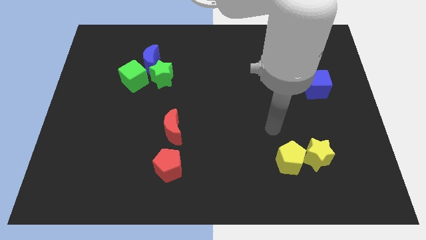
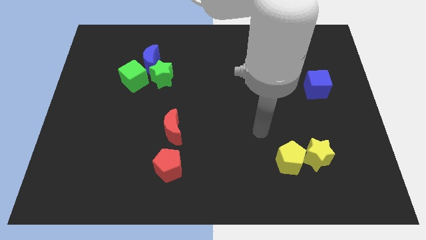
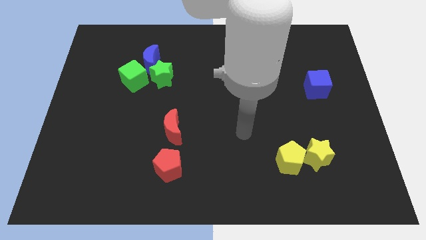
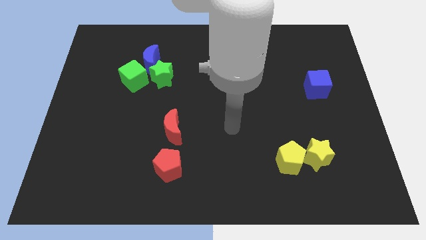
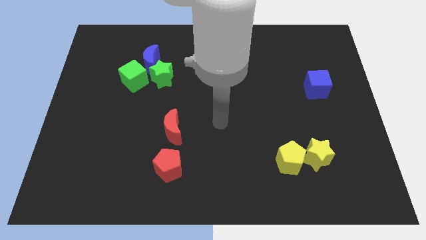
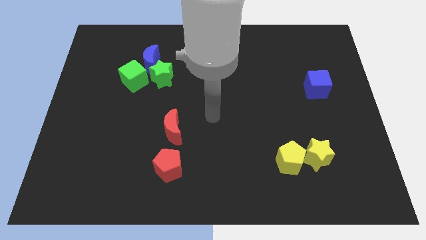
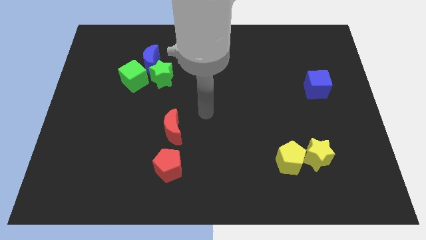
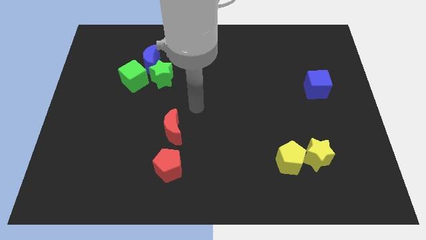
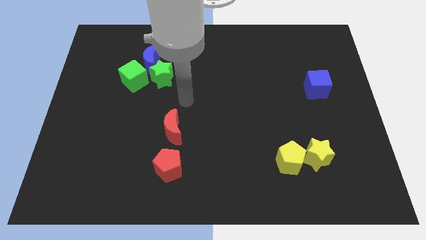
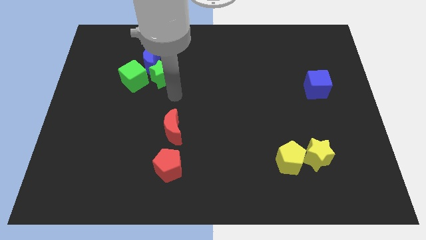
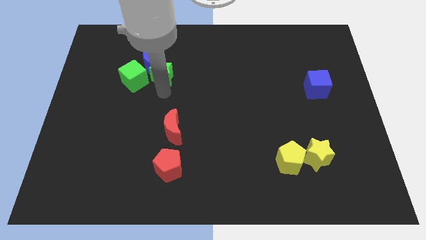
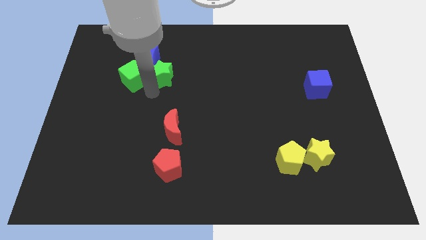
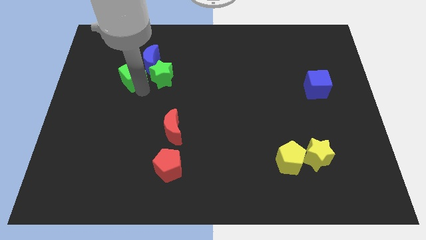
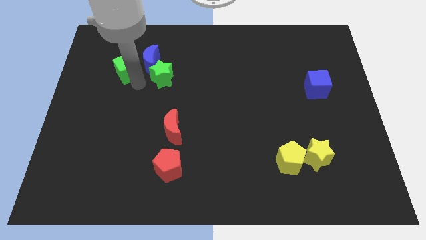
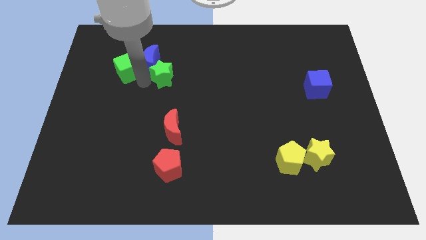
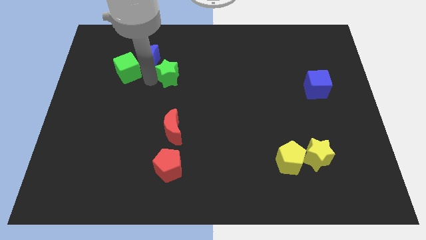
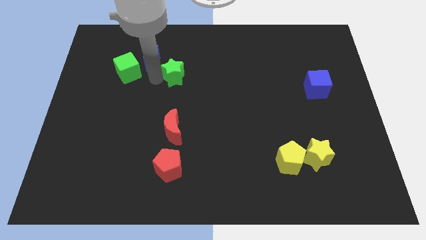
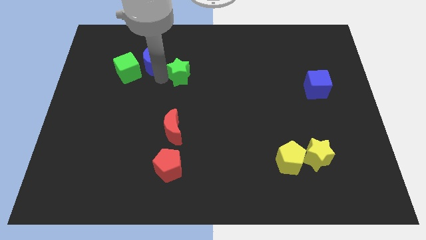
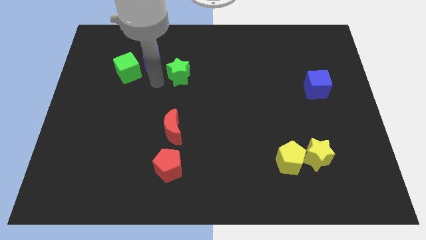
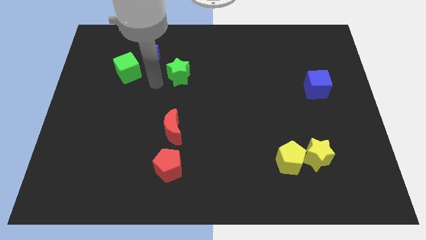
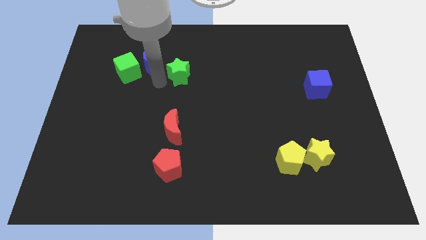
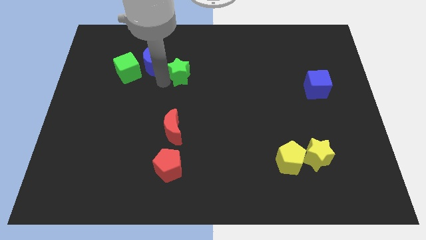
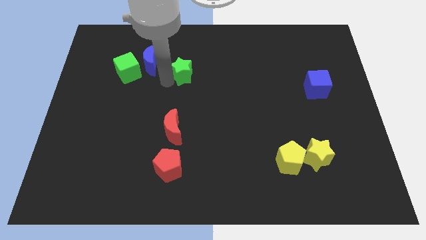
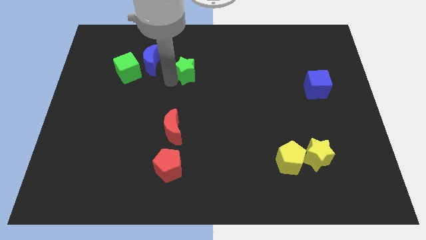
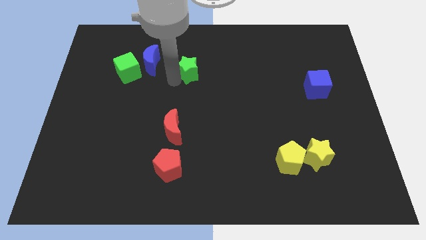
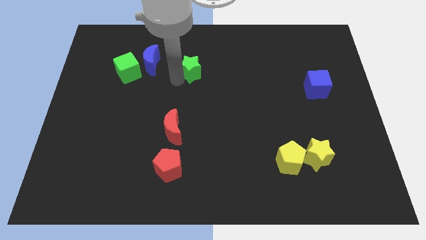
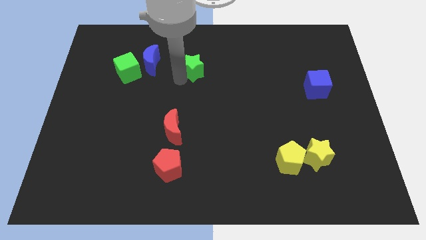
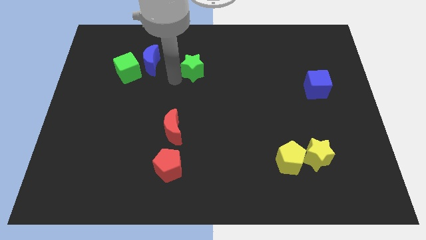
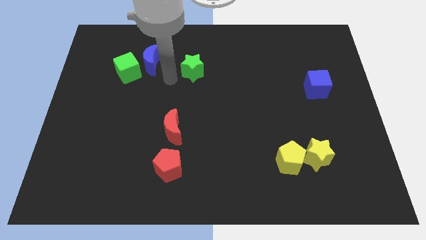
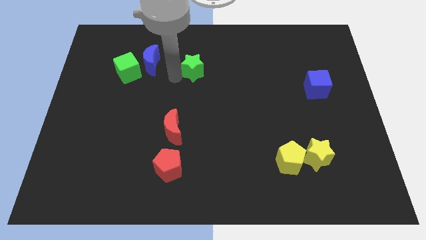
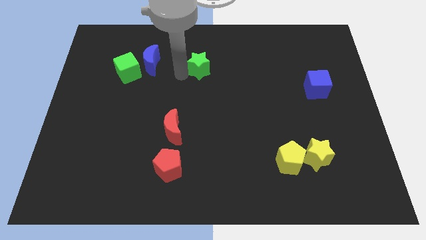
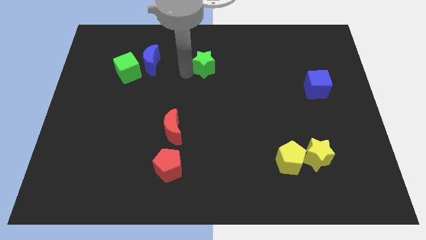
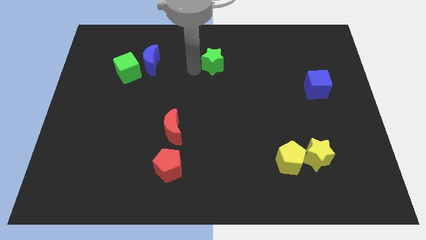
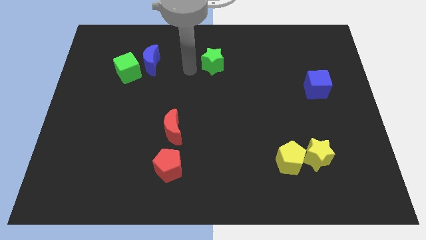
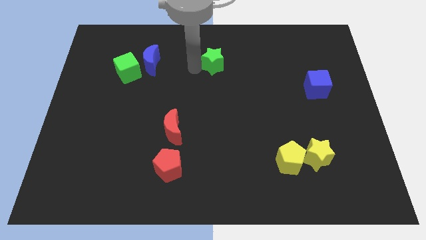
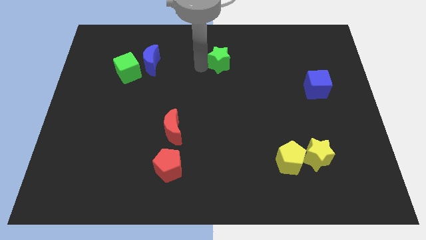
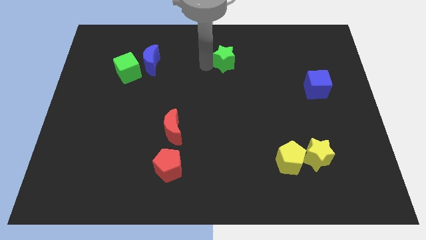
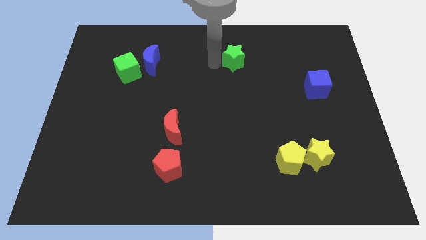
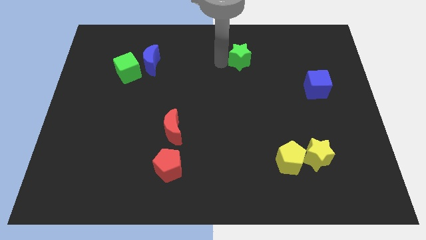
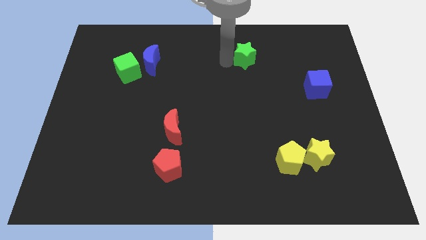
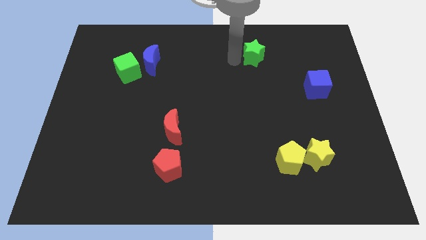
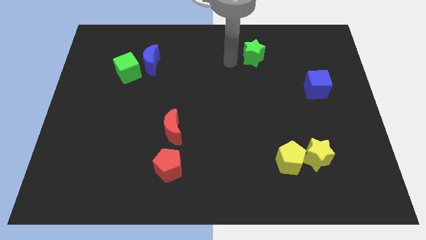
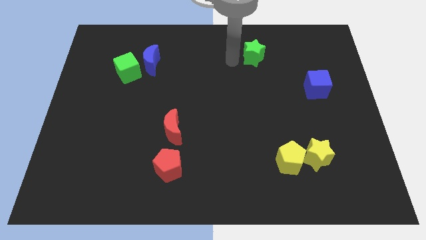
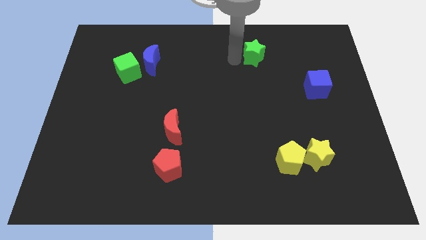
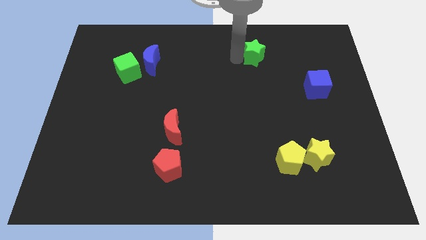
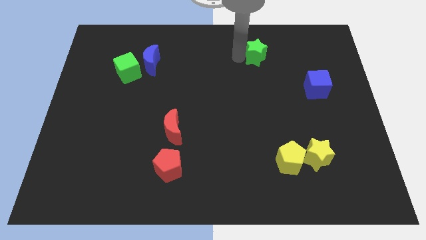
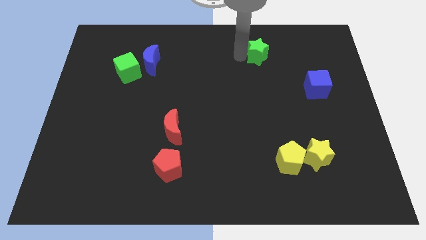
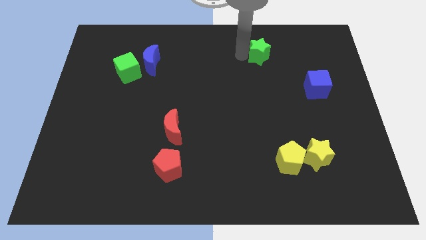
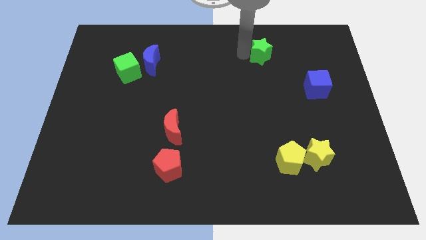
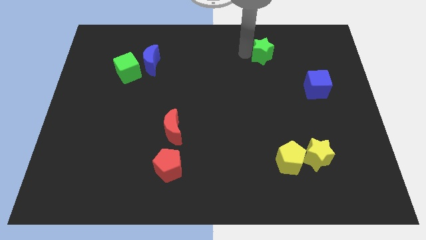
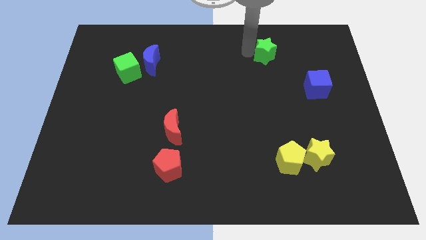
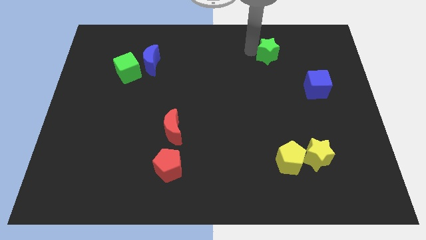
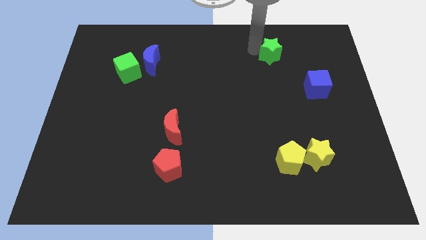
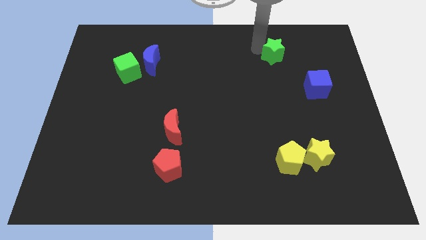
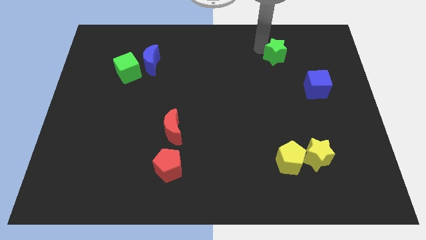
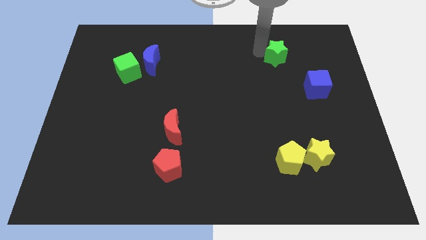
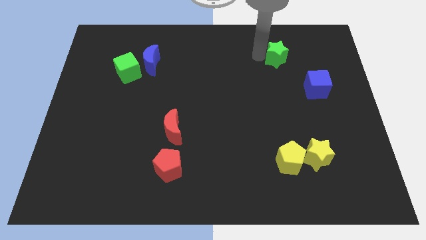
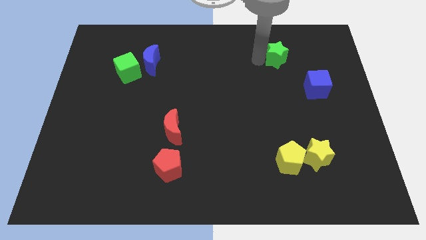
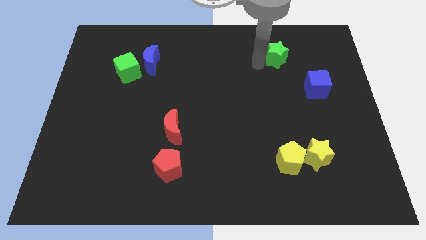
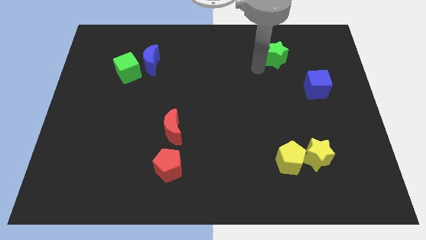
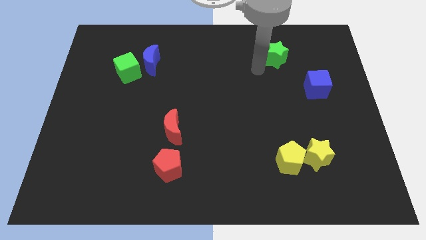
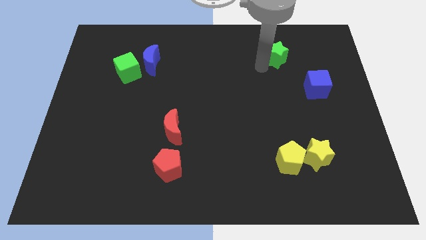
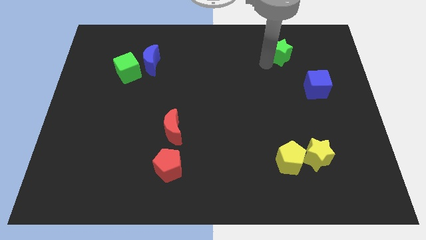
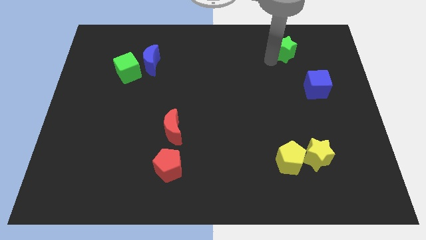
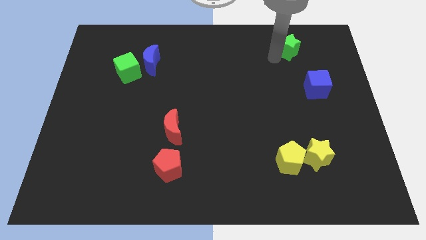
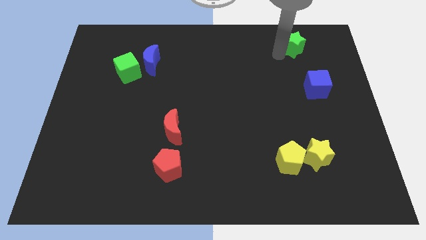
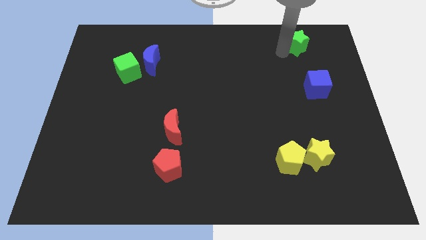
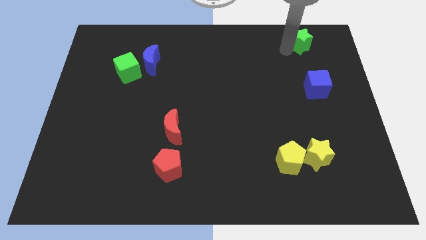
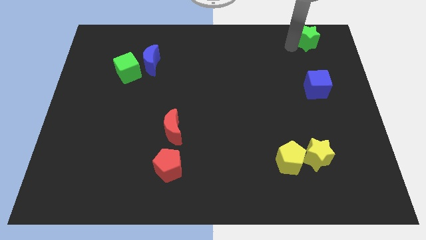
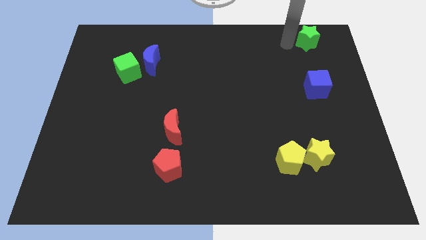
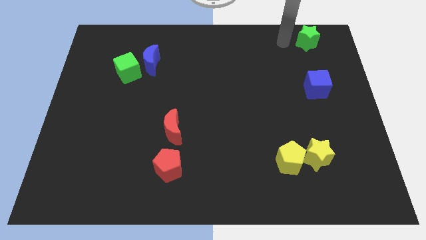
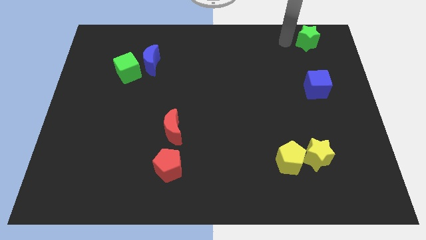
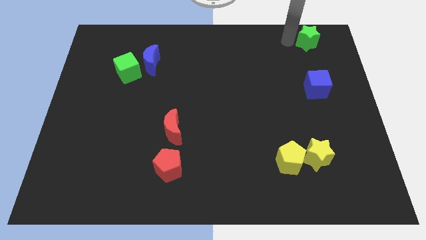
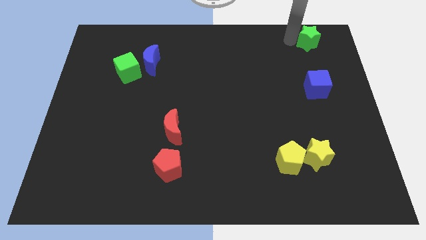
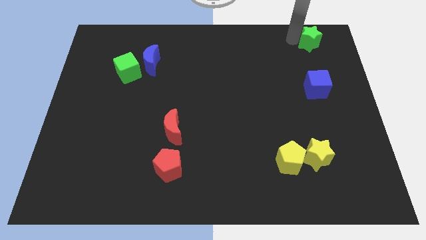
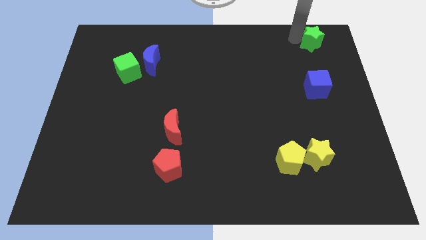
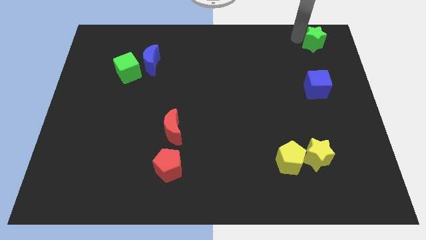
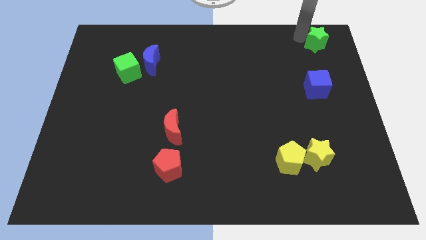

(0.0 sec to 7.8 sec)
put the green star to the upper right corner
